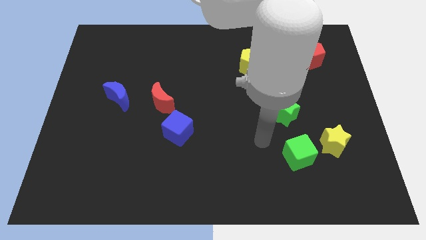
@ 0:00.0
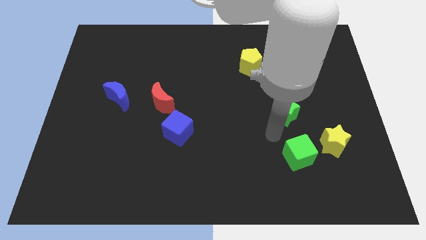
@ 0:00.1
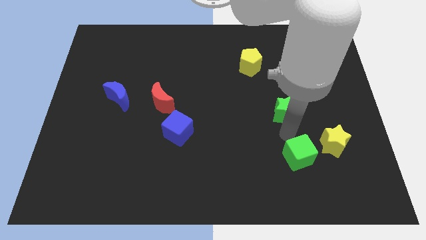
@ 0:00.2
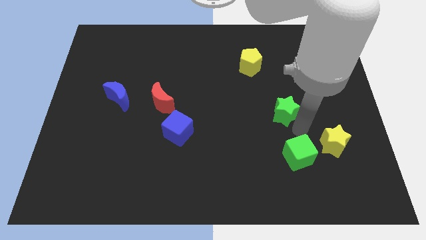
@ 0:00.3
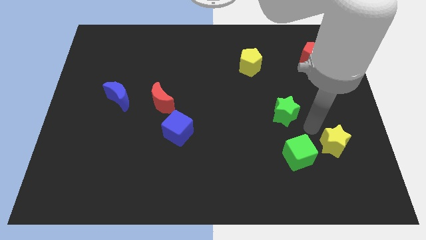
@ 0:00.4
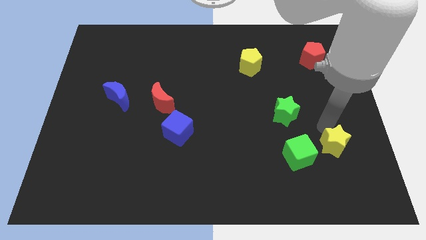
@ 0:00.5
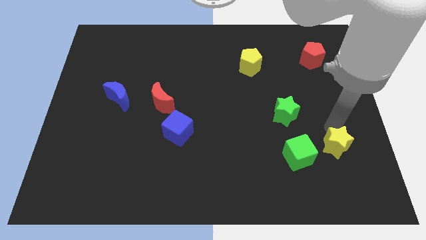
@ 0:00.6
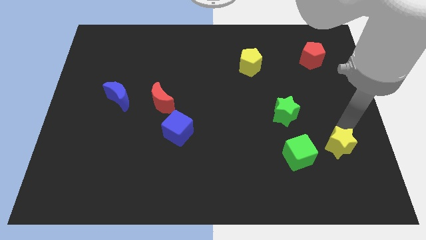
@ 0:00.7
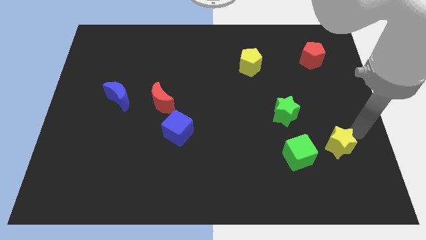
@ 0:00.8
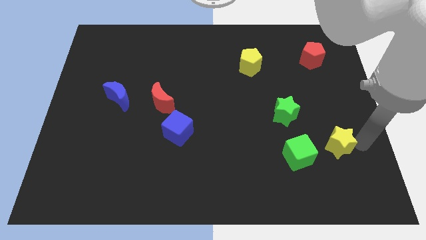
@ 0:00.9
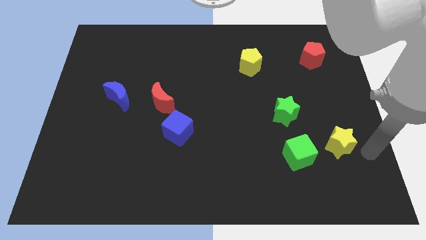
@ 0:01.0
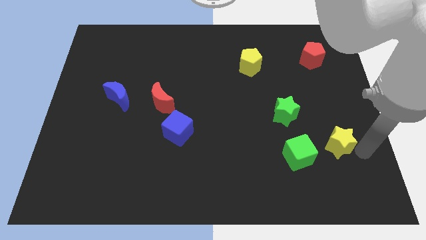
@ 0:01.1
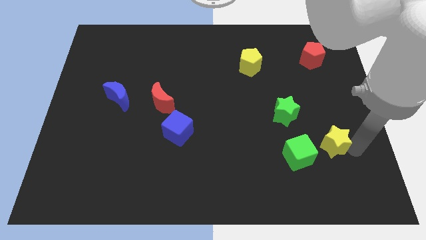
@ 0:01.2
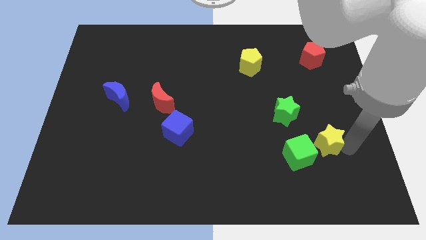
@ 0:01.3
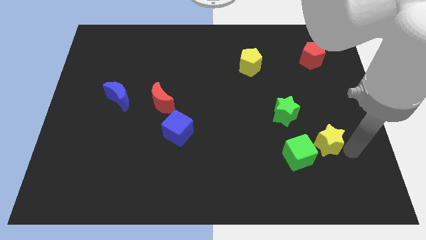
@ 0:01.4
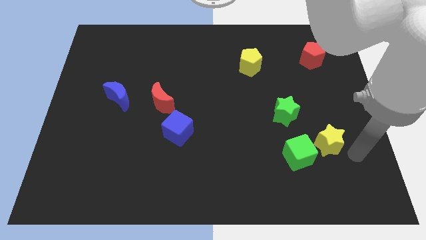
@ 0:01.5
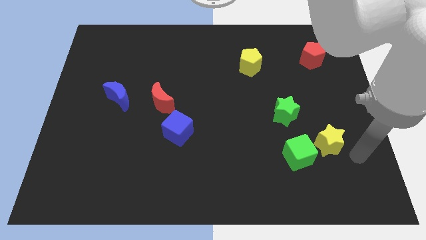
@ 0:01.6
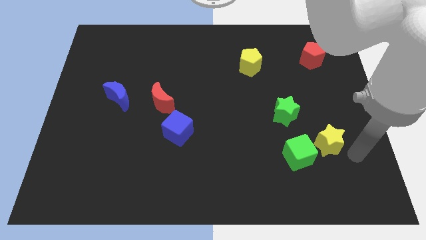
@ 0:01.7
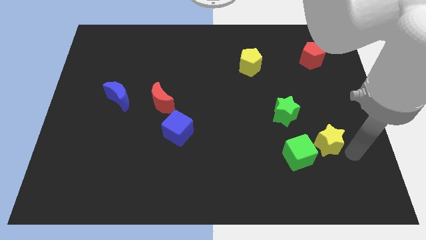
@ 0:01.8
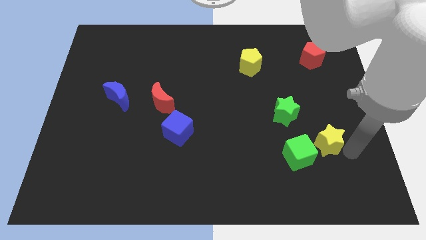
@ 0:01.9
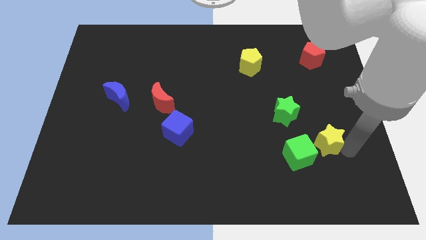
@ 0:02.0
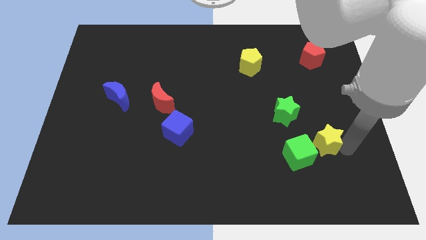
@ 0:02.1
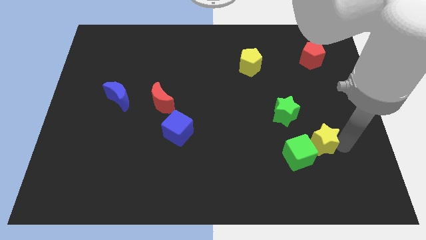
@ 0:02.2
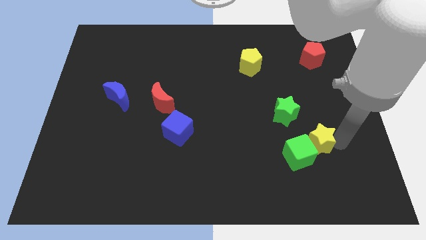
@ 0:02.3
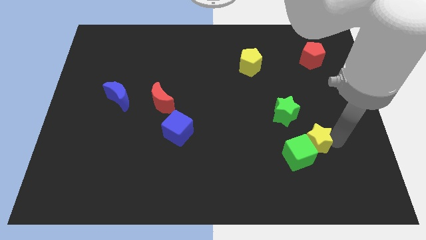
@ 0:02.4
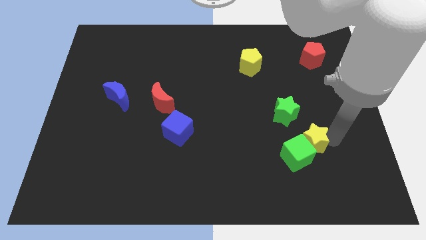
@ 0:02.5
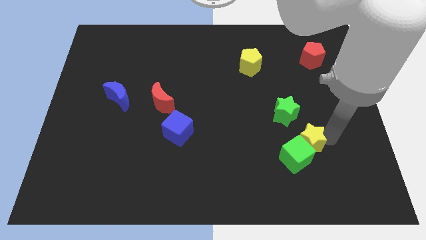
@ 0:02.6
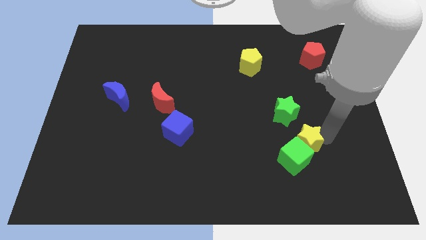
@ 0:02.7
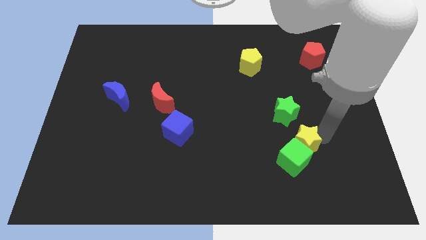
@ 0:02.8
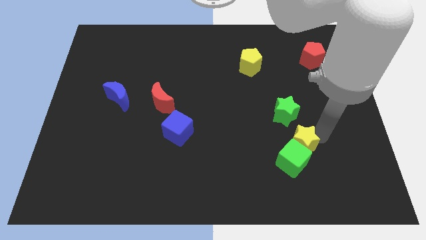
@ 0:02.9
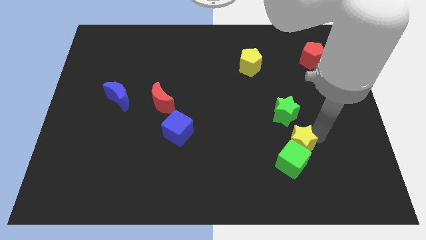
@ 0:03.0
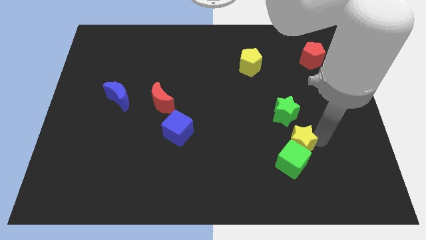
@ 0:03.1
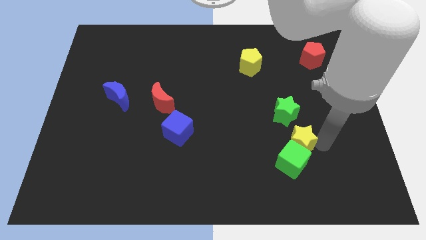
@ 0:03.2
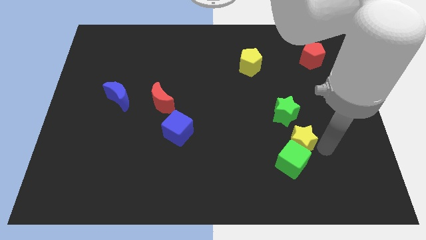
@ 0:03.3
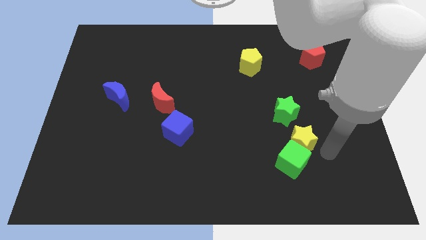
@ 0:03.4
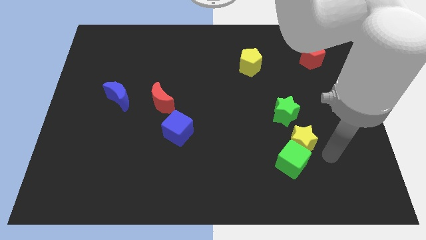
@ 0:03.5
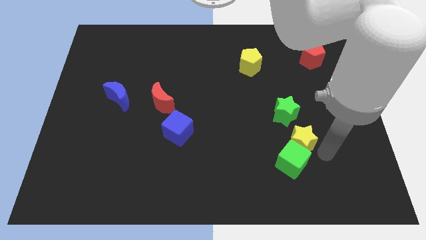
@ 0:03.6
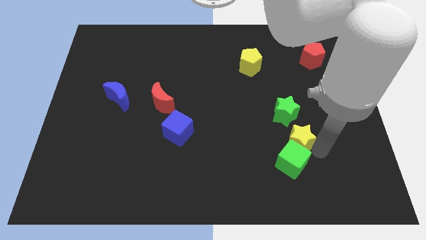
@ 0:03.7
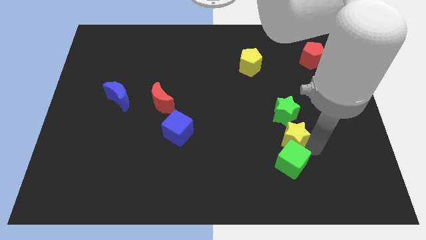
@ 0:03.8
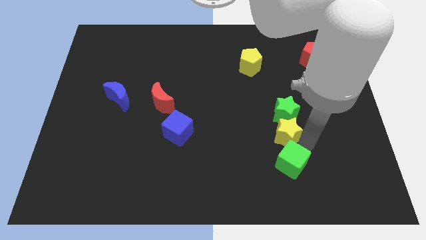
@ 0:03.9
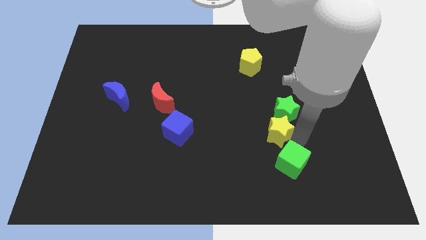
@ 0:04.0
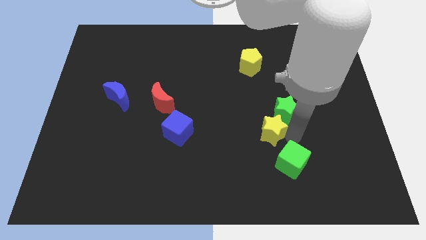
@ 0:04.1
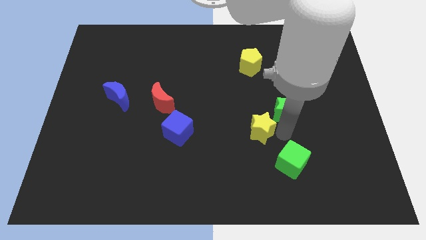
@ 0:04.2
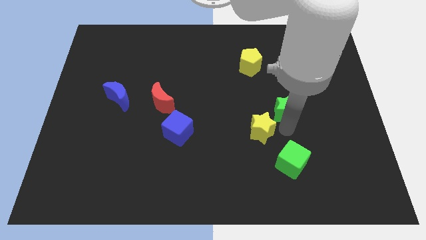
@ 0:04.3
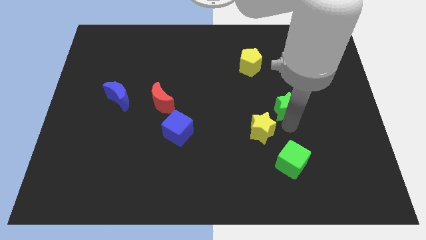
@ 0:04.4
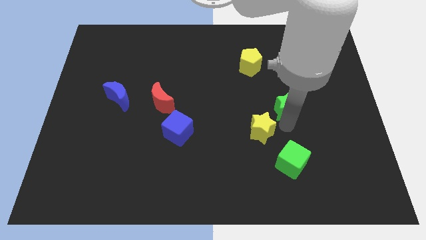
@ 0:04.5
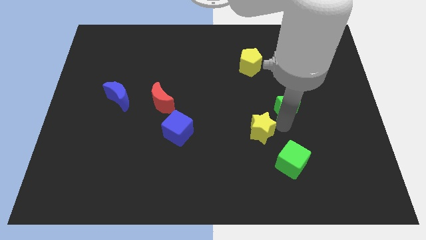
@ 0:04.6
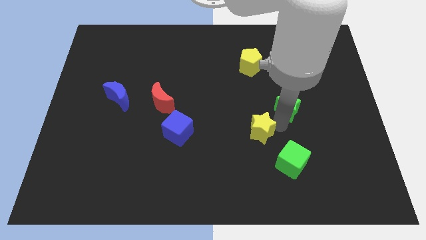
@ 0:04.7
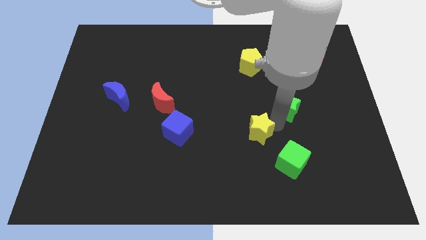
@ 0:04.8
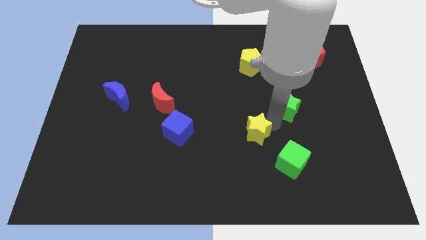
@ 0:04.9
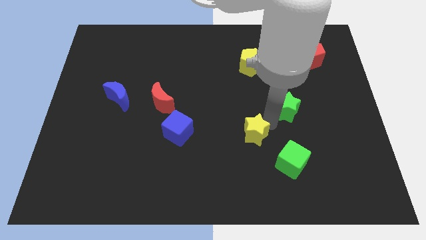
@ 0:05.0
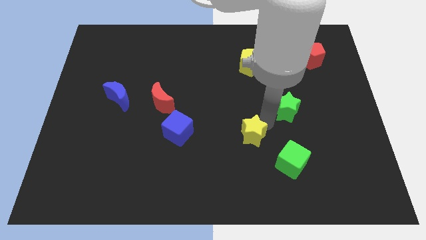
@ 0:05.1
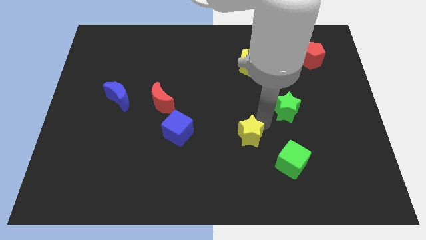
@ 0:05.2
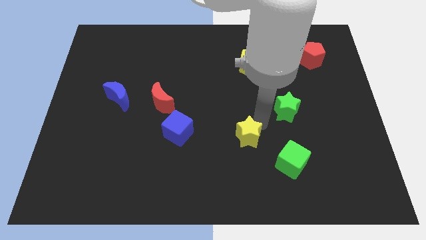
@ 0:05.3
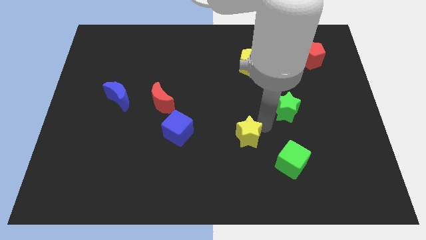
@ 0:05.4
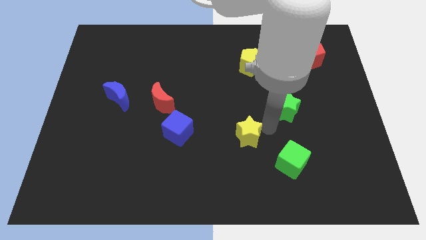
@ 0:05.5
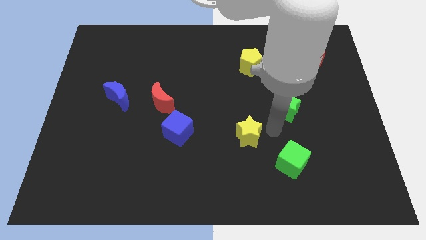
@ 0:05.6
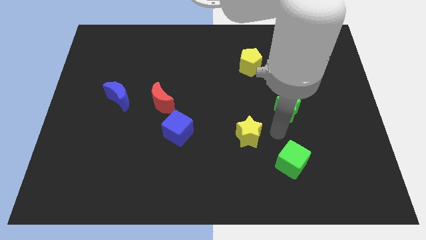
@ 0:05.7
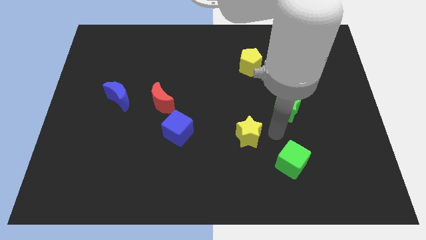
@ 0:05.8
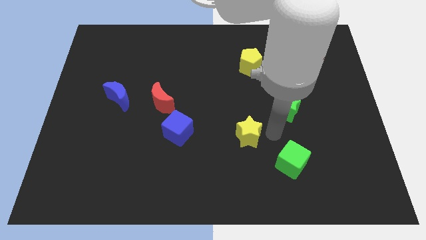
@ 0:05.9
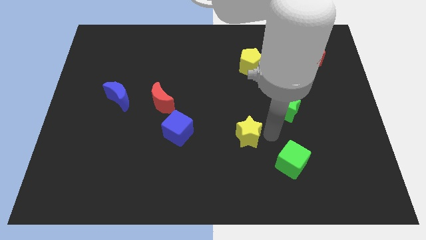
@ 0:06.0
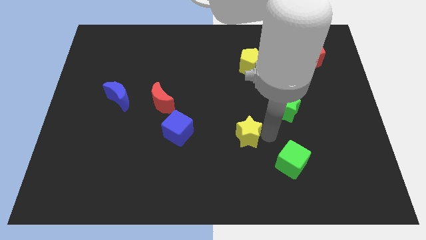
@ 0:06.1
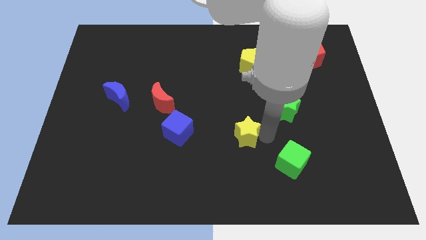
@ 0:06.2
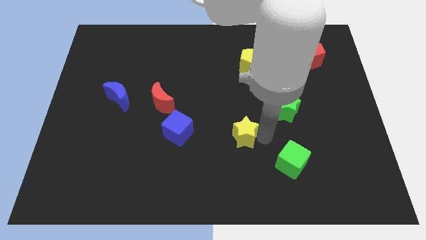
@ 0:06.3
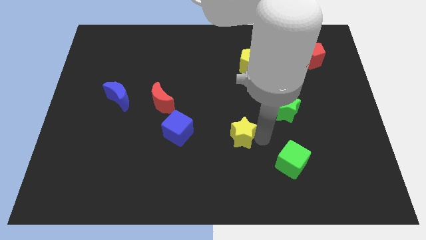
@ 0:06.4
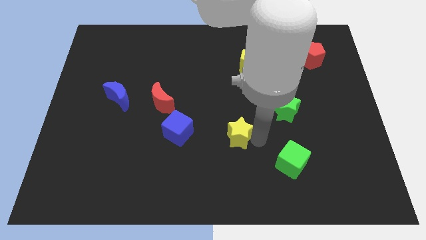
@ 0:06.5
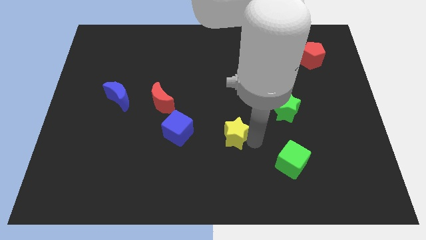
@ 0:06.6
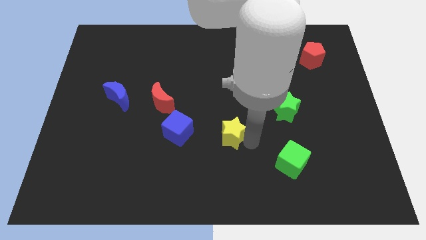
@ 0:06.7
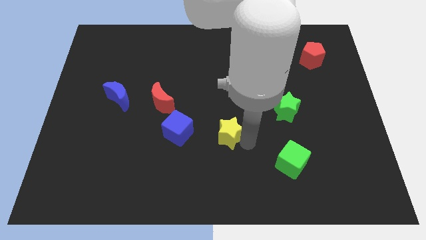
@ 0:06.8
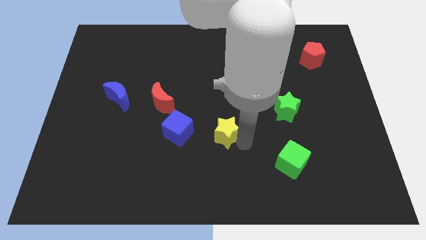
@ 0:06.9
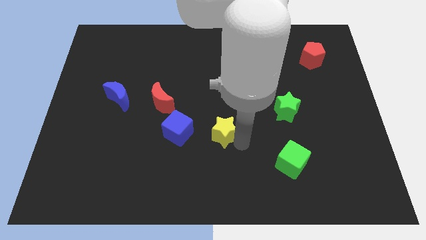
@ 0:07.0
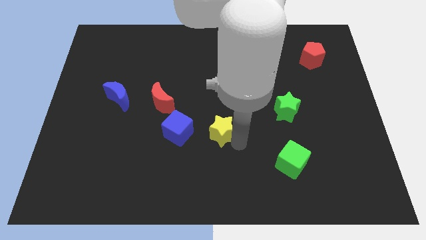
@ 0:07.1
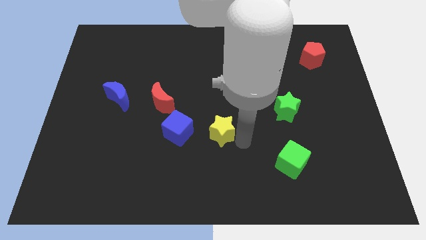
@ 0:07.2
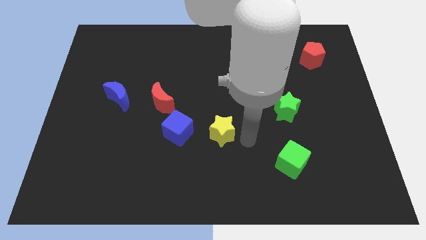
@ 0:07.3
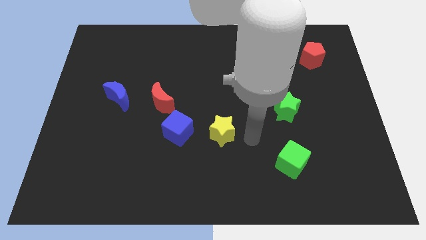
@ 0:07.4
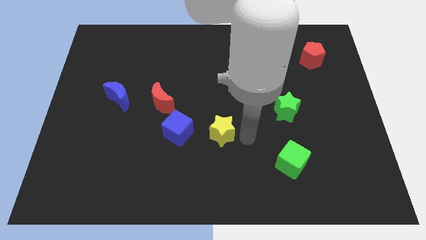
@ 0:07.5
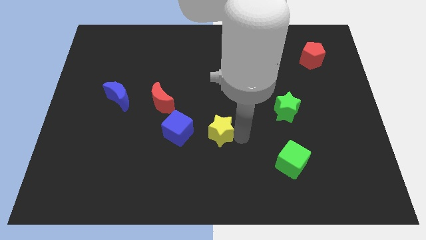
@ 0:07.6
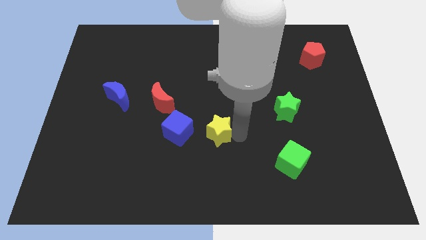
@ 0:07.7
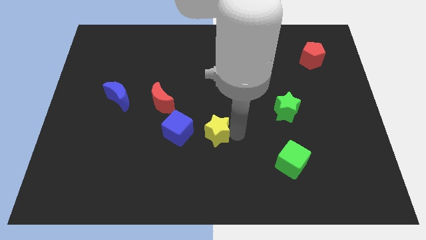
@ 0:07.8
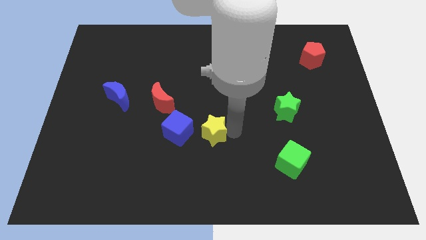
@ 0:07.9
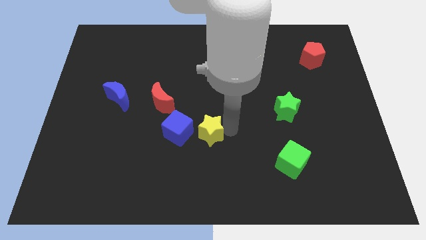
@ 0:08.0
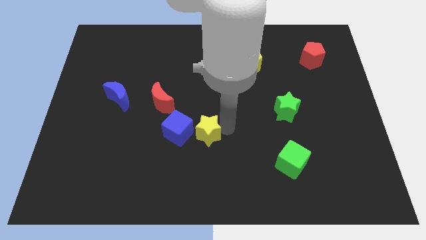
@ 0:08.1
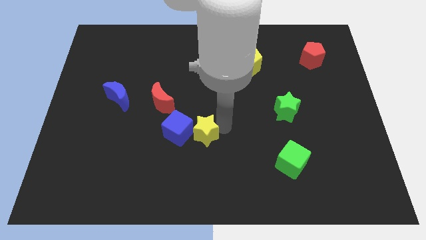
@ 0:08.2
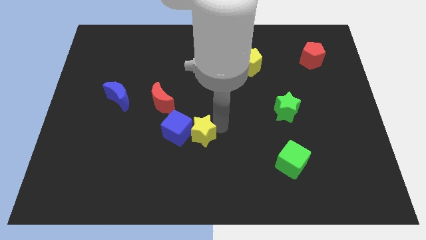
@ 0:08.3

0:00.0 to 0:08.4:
slide the yellow star close to the blue cube
